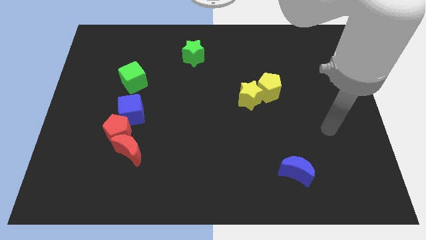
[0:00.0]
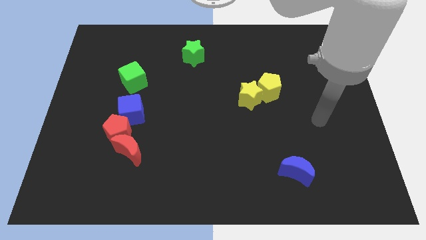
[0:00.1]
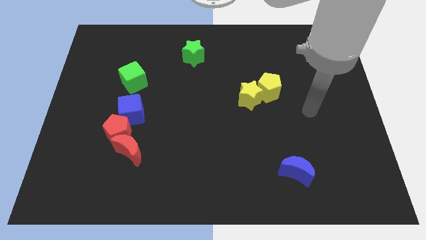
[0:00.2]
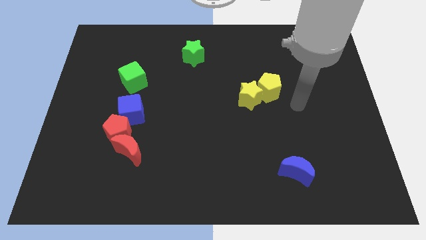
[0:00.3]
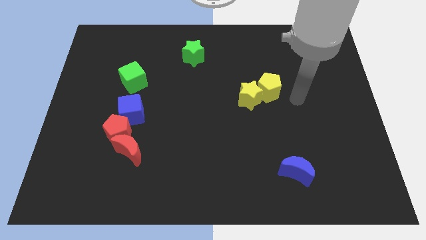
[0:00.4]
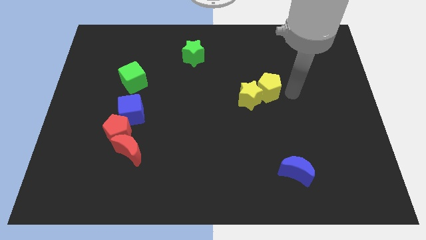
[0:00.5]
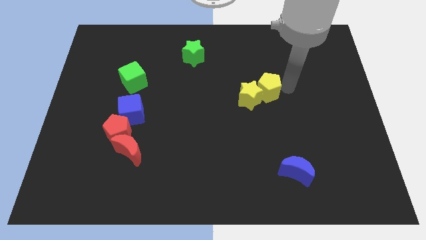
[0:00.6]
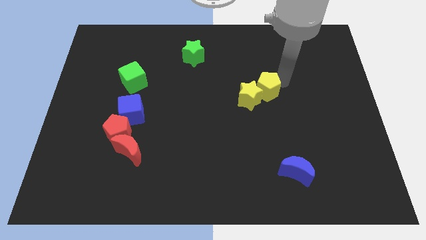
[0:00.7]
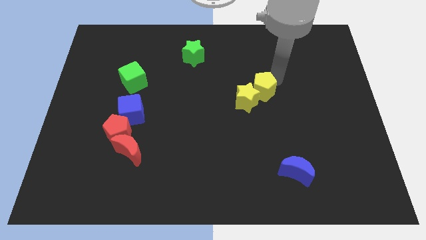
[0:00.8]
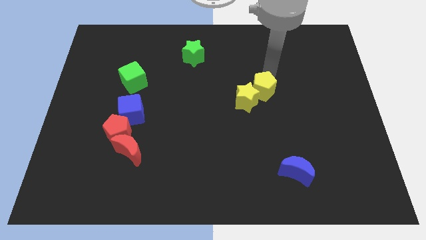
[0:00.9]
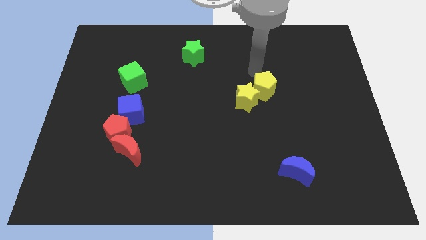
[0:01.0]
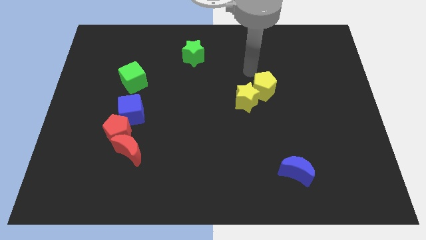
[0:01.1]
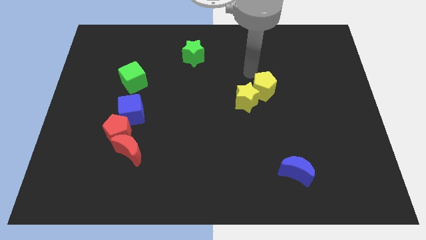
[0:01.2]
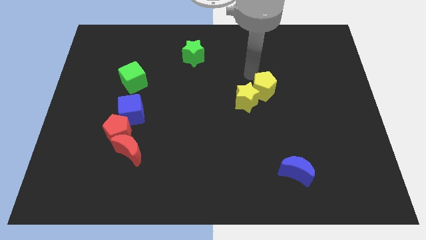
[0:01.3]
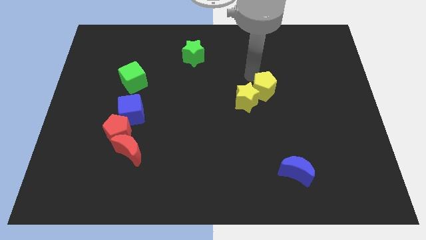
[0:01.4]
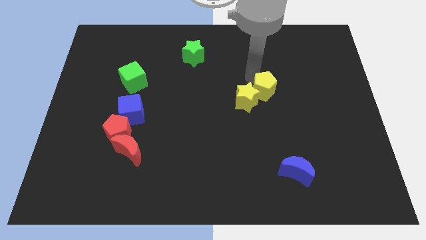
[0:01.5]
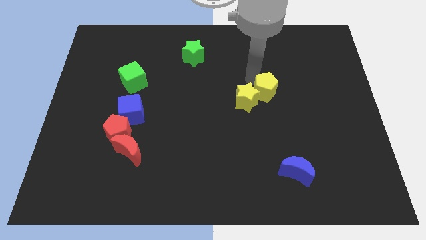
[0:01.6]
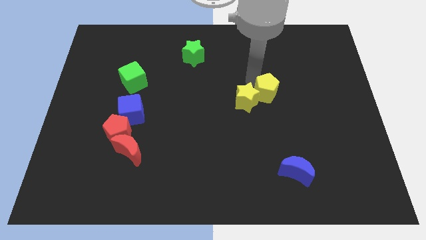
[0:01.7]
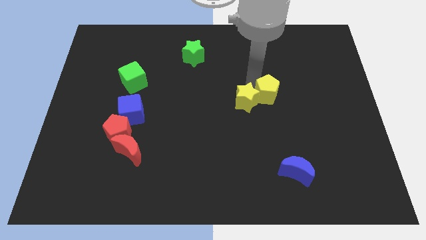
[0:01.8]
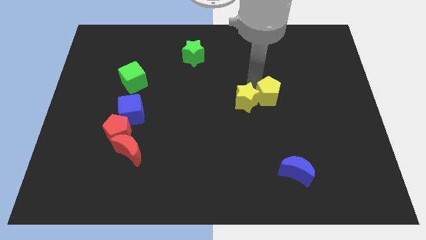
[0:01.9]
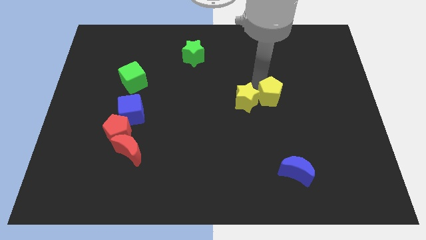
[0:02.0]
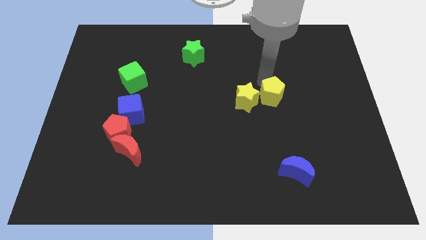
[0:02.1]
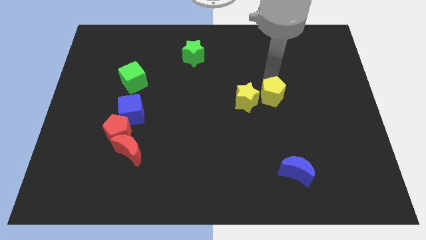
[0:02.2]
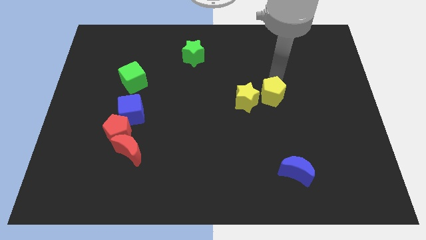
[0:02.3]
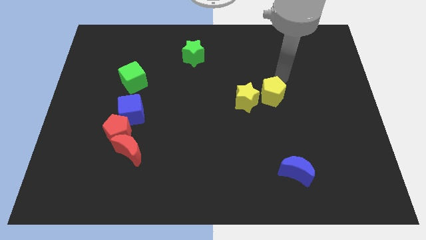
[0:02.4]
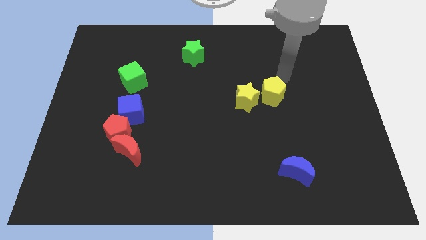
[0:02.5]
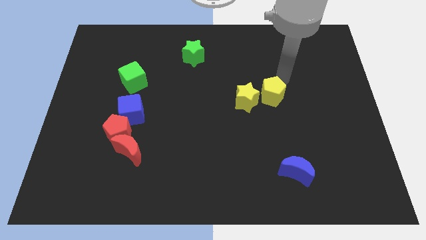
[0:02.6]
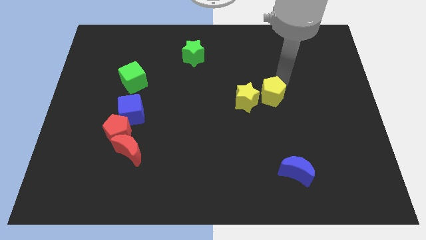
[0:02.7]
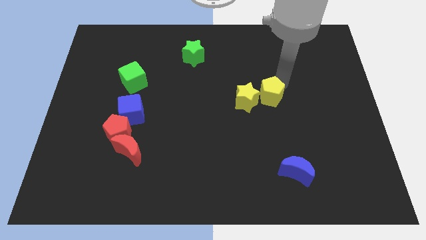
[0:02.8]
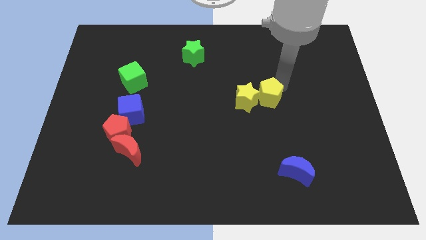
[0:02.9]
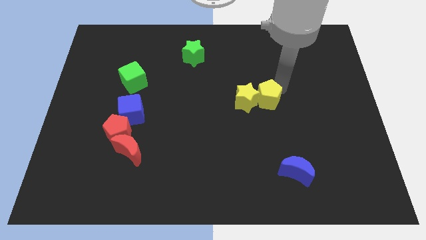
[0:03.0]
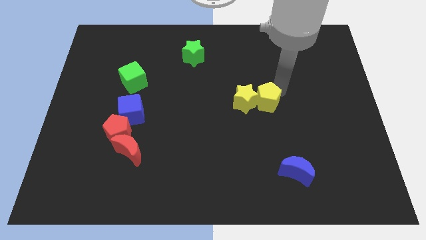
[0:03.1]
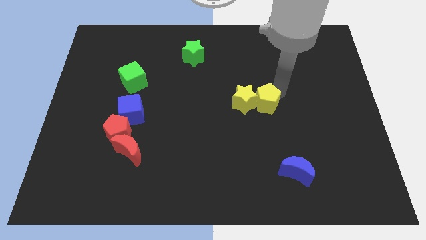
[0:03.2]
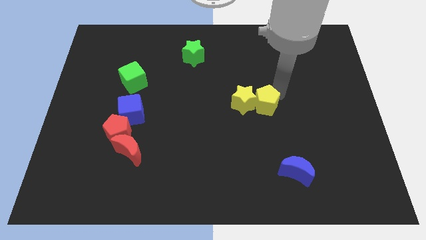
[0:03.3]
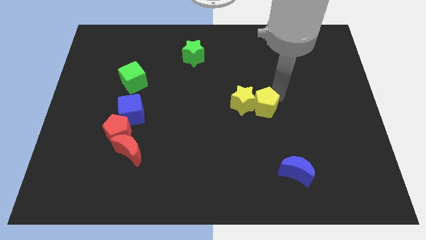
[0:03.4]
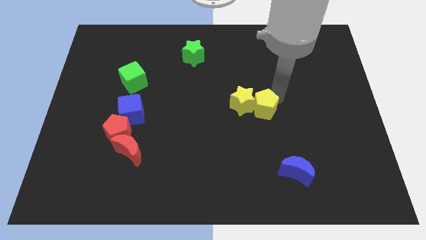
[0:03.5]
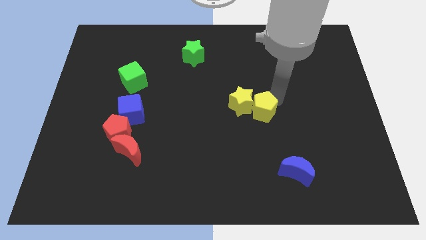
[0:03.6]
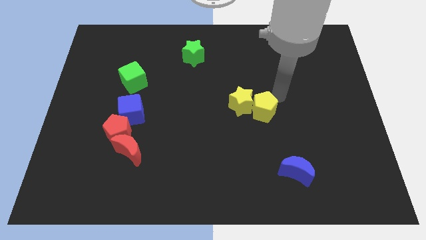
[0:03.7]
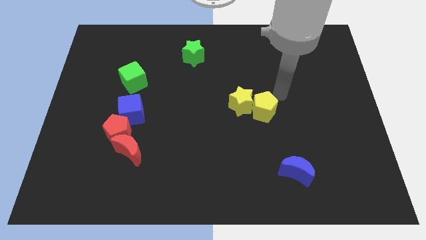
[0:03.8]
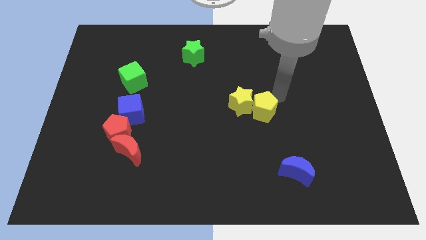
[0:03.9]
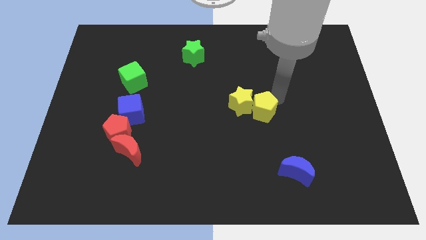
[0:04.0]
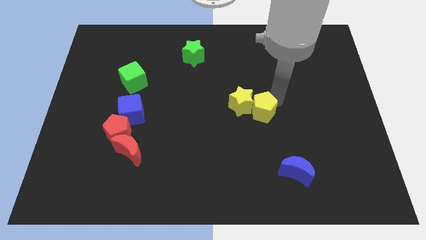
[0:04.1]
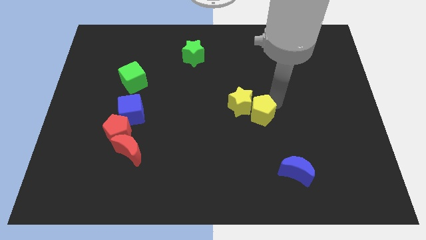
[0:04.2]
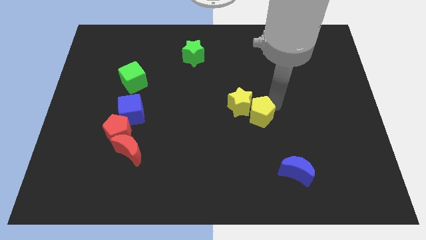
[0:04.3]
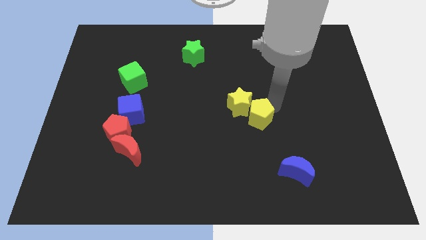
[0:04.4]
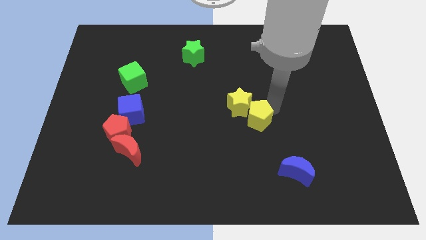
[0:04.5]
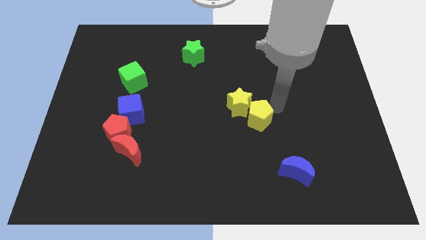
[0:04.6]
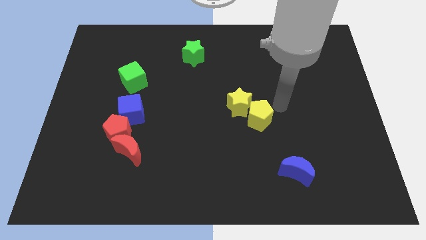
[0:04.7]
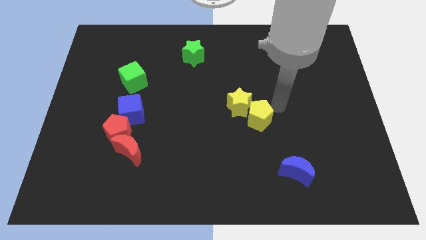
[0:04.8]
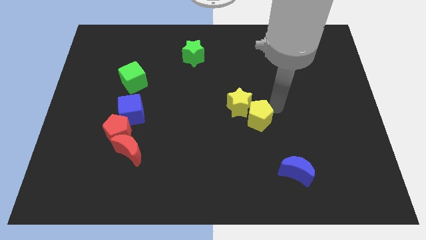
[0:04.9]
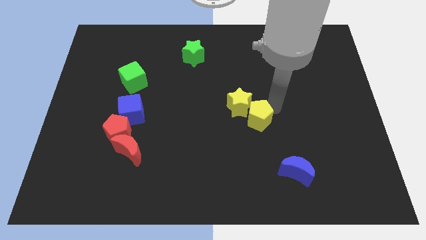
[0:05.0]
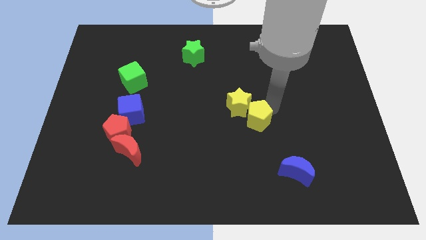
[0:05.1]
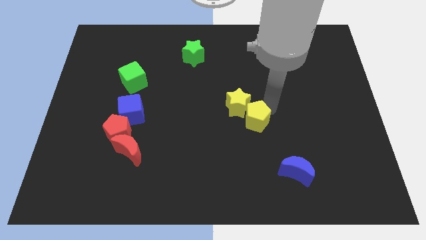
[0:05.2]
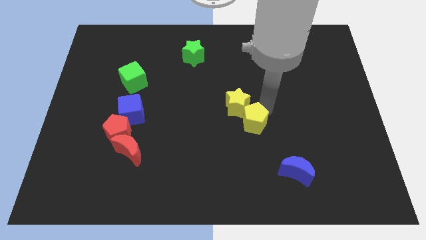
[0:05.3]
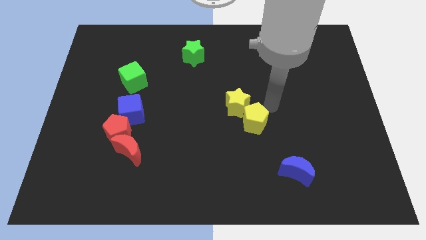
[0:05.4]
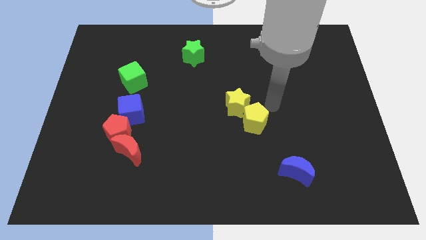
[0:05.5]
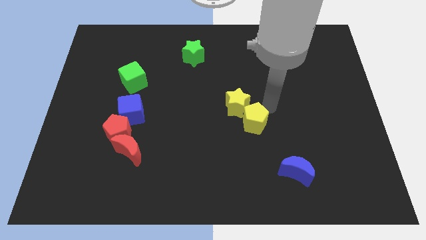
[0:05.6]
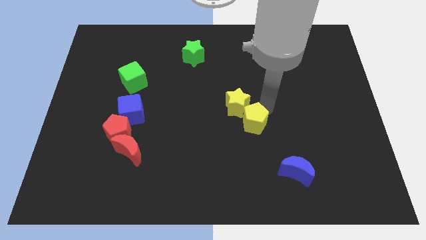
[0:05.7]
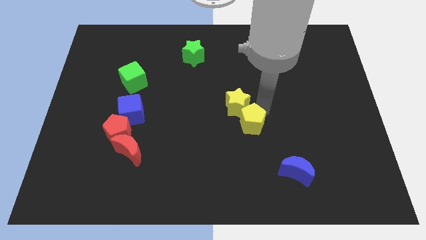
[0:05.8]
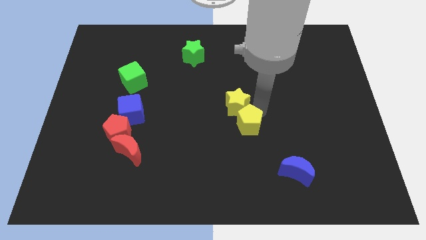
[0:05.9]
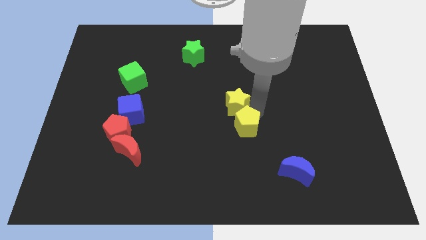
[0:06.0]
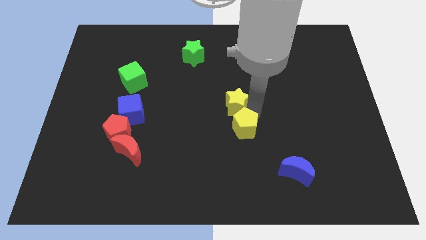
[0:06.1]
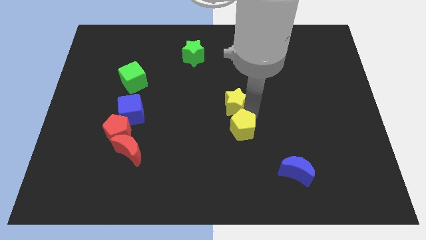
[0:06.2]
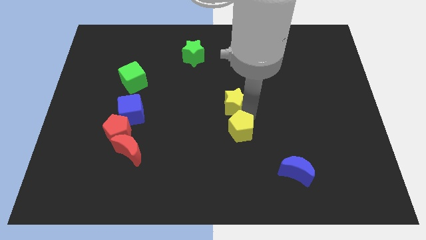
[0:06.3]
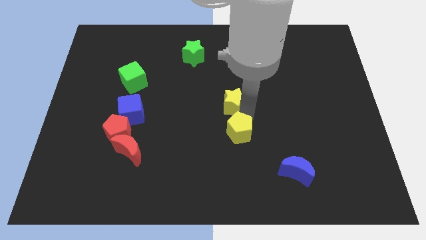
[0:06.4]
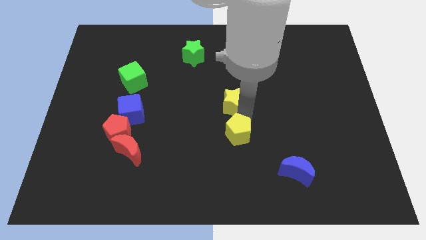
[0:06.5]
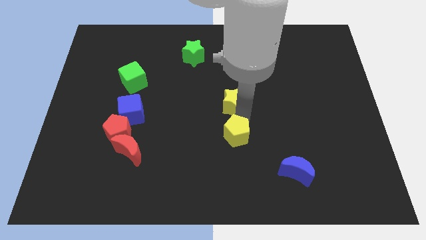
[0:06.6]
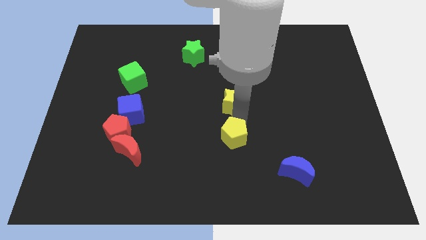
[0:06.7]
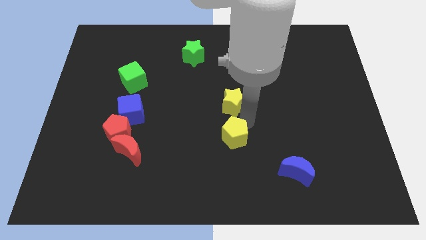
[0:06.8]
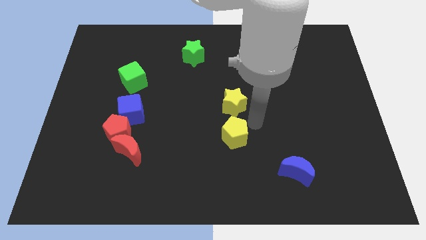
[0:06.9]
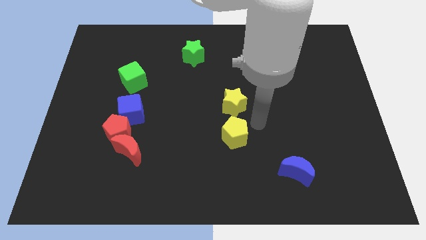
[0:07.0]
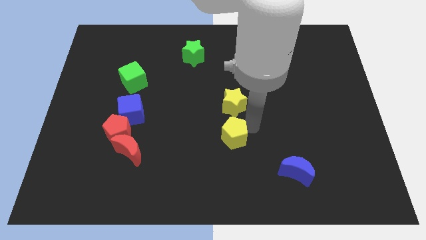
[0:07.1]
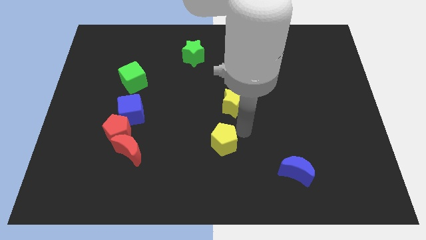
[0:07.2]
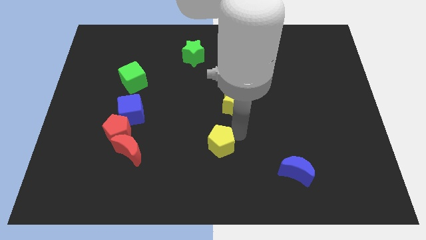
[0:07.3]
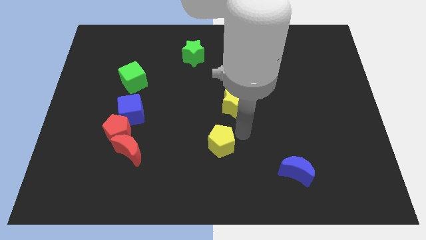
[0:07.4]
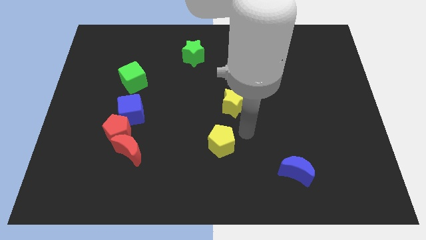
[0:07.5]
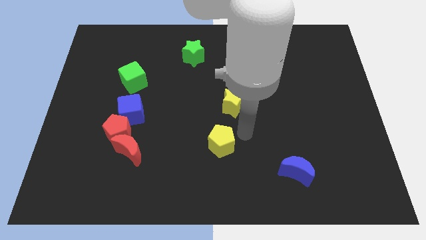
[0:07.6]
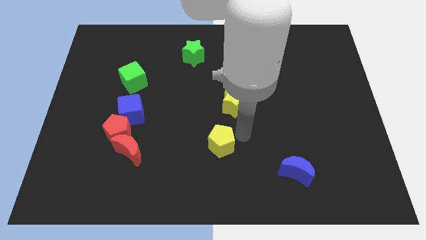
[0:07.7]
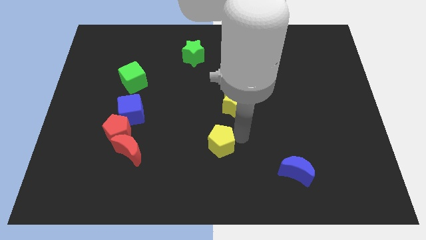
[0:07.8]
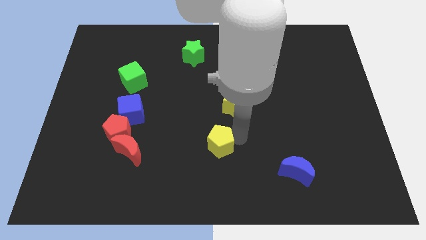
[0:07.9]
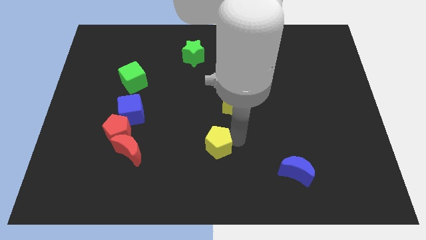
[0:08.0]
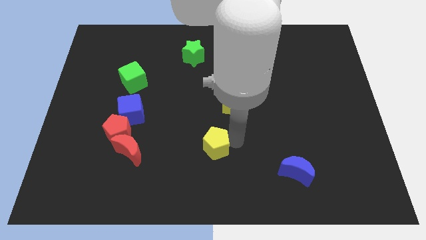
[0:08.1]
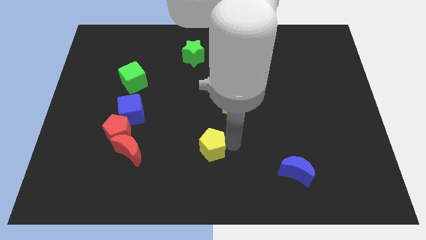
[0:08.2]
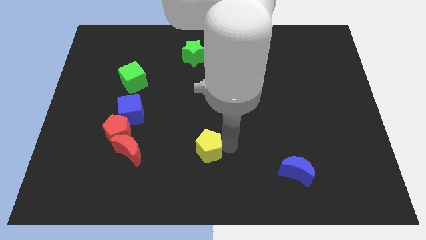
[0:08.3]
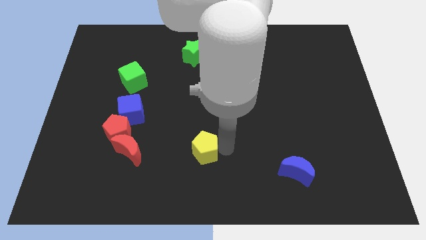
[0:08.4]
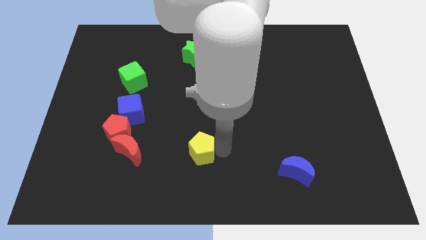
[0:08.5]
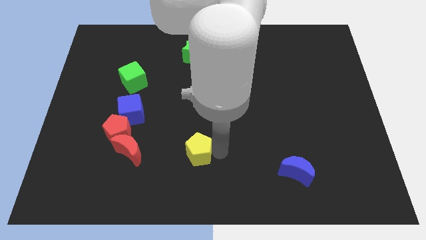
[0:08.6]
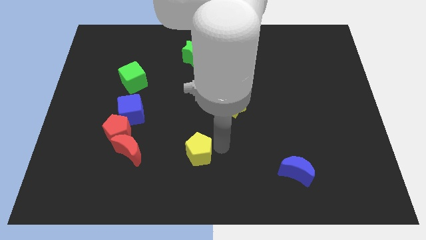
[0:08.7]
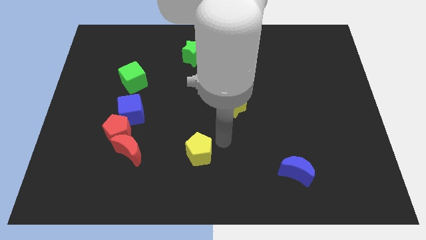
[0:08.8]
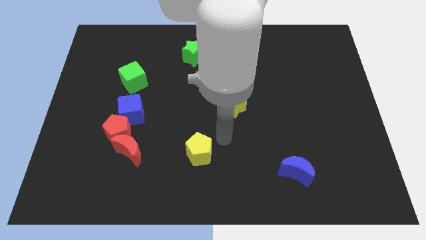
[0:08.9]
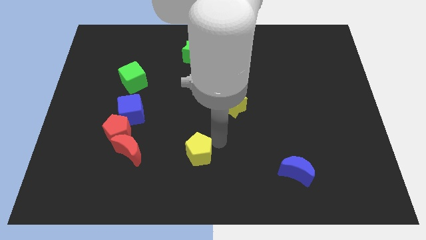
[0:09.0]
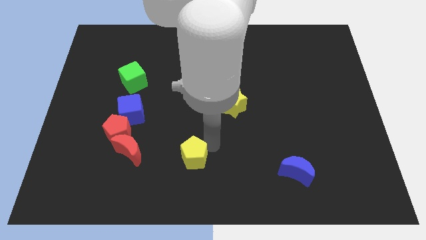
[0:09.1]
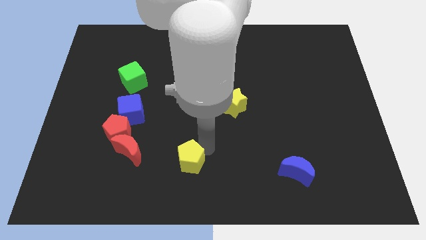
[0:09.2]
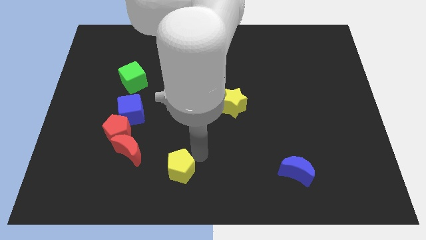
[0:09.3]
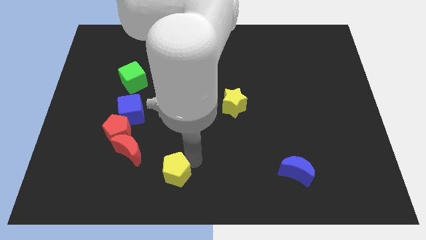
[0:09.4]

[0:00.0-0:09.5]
put the yellow pentagon to the bottom right of the red moon
